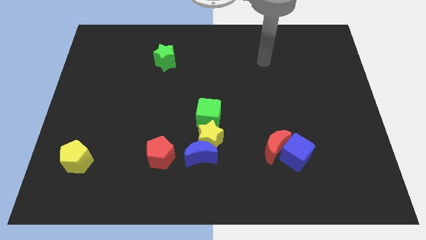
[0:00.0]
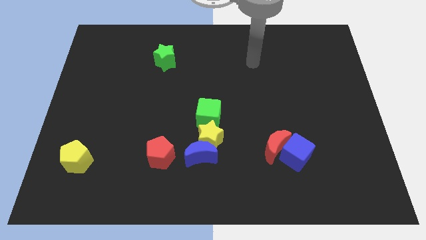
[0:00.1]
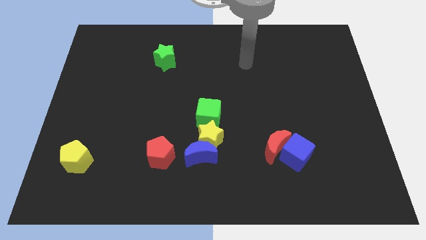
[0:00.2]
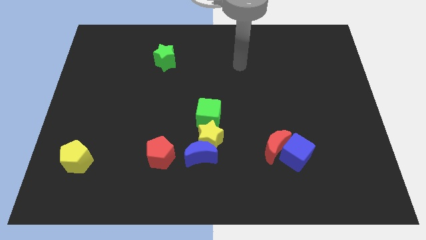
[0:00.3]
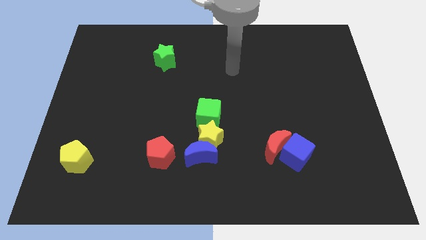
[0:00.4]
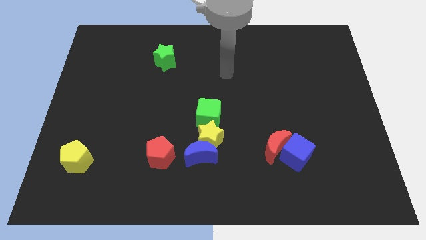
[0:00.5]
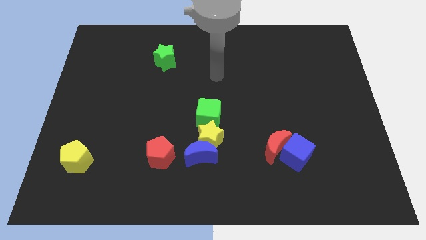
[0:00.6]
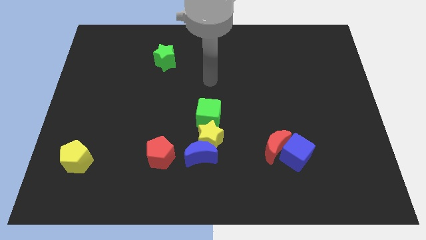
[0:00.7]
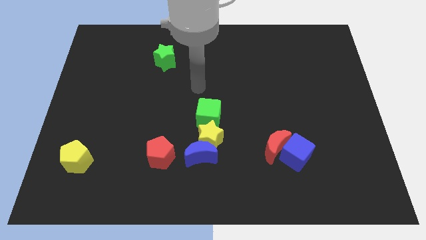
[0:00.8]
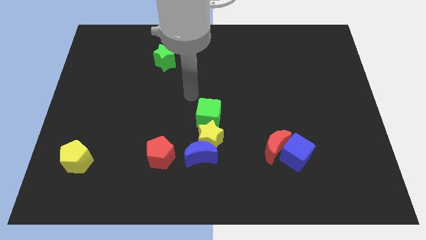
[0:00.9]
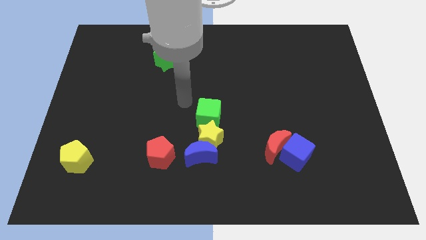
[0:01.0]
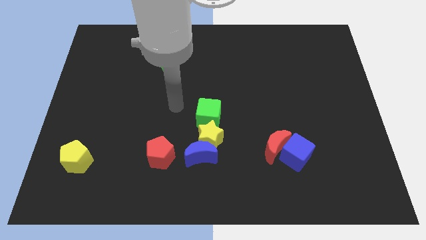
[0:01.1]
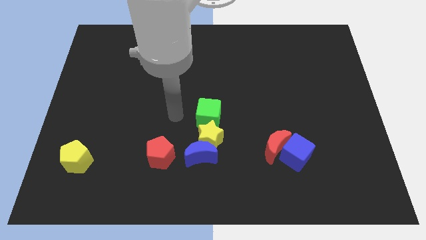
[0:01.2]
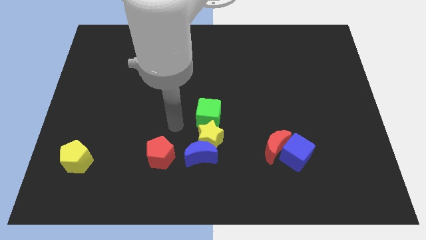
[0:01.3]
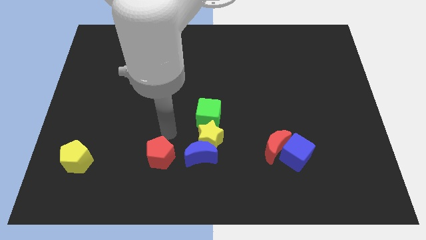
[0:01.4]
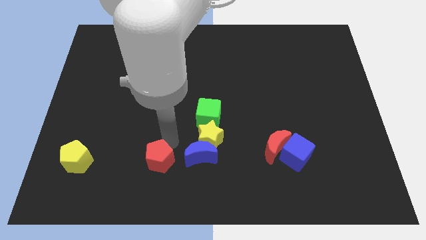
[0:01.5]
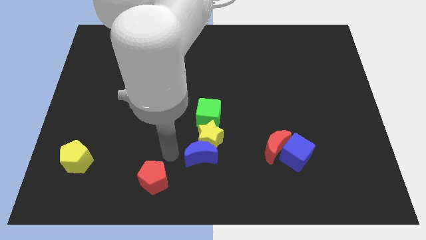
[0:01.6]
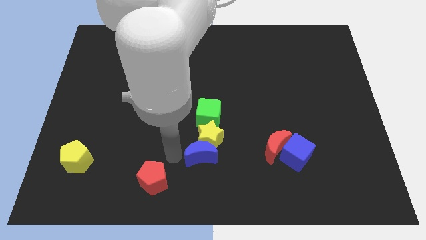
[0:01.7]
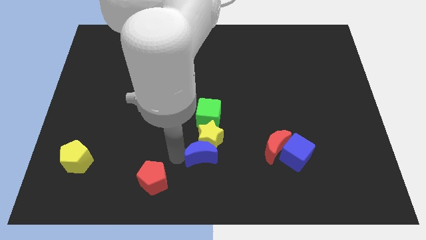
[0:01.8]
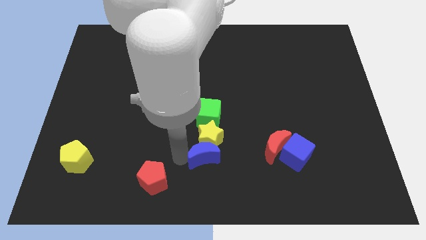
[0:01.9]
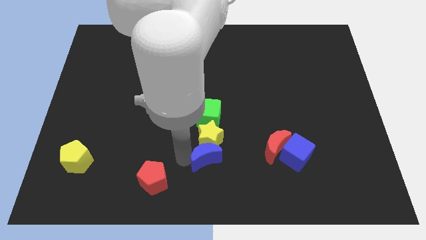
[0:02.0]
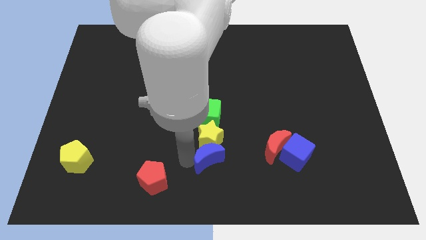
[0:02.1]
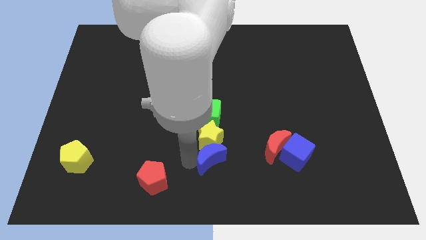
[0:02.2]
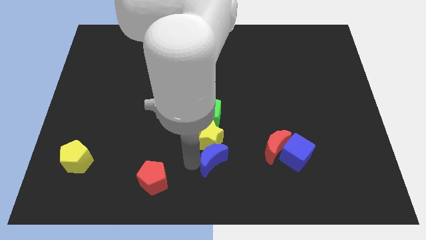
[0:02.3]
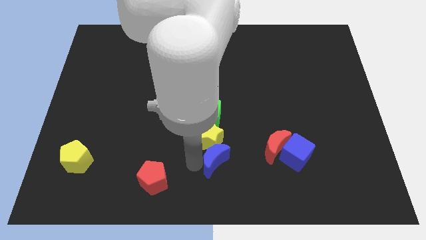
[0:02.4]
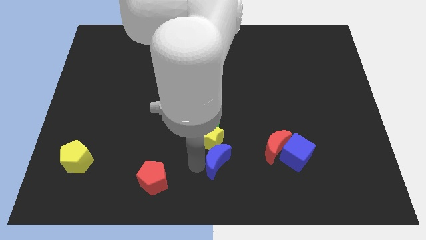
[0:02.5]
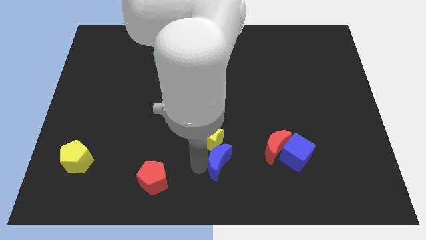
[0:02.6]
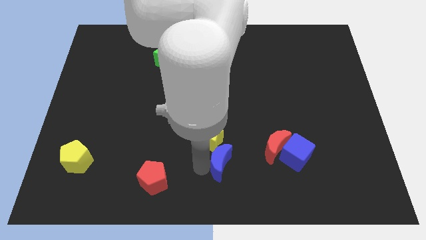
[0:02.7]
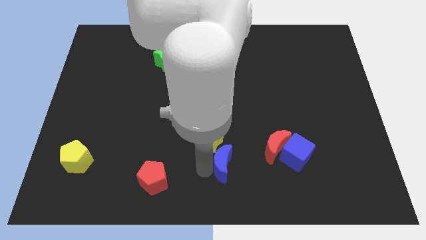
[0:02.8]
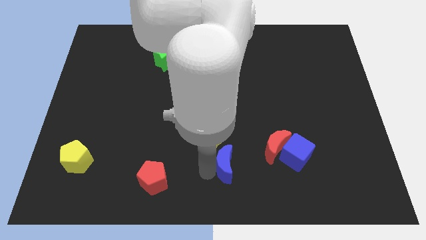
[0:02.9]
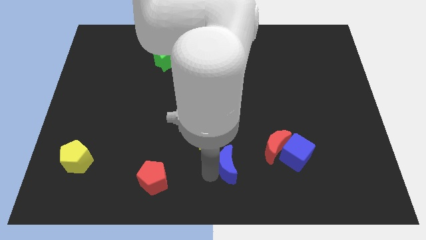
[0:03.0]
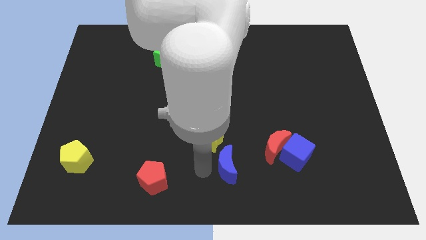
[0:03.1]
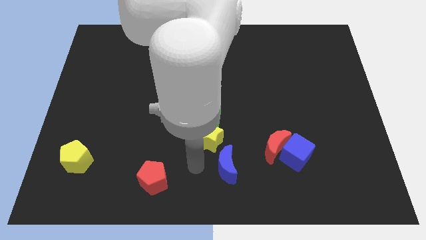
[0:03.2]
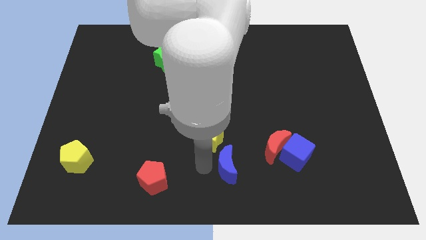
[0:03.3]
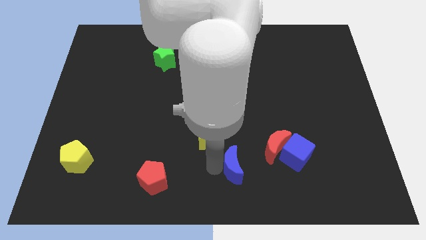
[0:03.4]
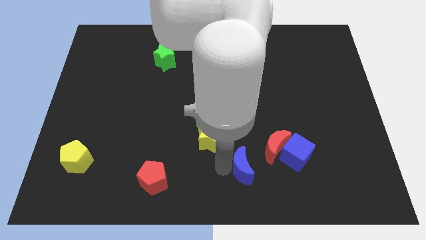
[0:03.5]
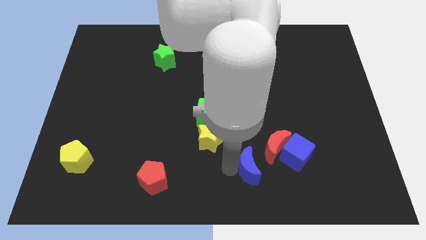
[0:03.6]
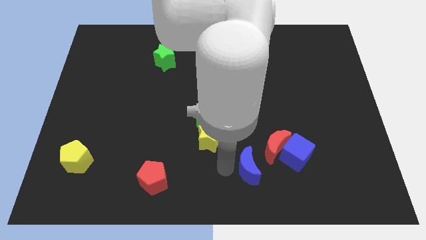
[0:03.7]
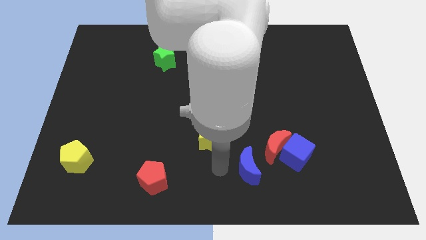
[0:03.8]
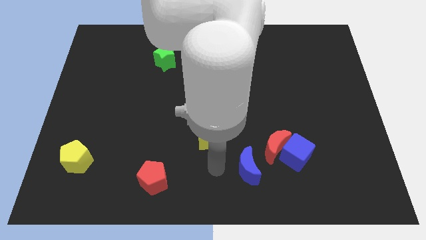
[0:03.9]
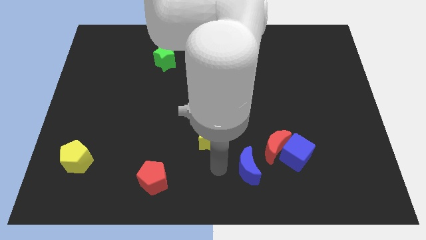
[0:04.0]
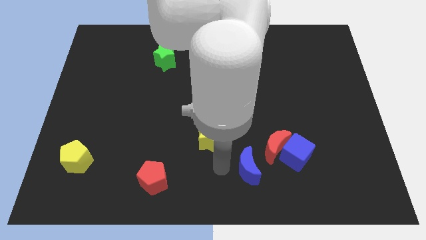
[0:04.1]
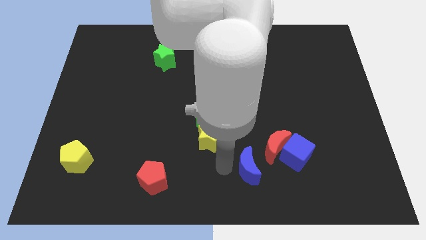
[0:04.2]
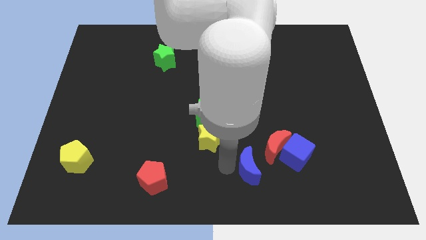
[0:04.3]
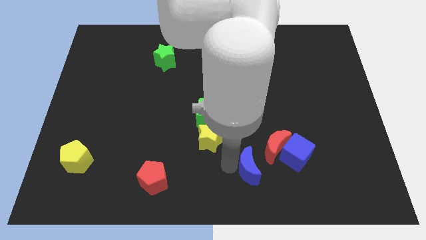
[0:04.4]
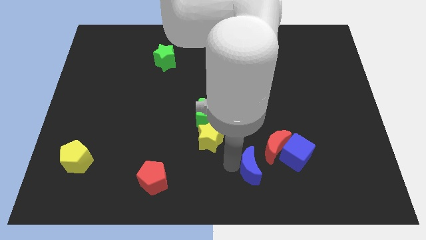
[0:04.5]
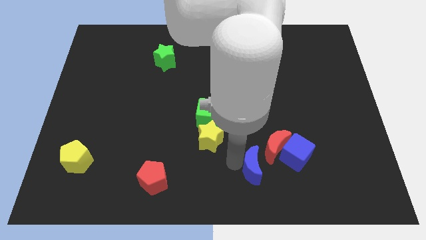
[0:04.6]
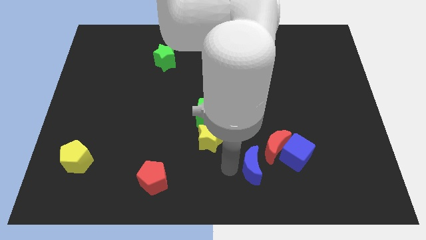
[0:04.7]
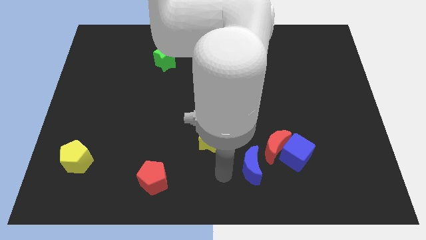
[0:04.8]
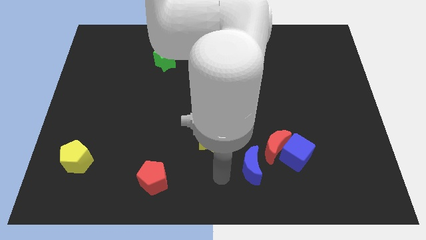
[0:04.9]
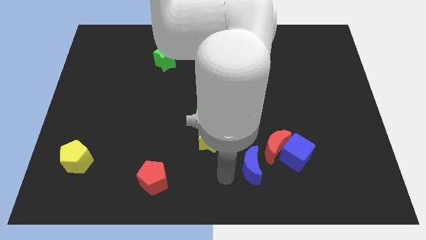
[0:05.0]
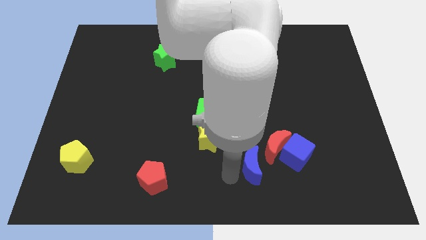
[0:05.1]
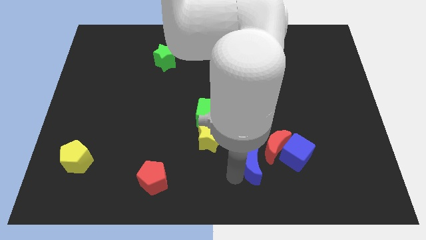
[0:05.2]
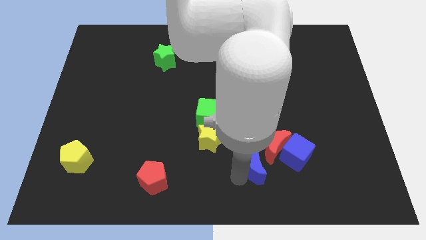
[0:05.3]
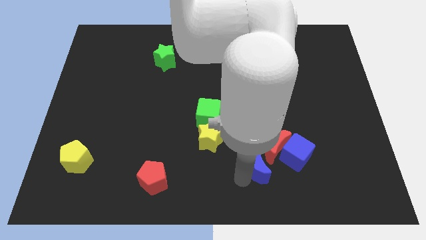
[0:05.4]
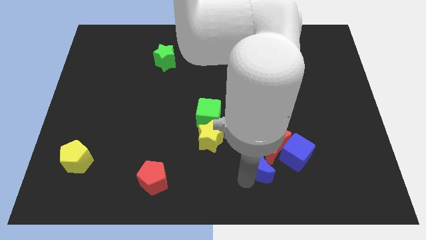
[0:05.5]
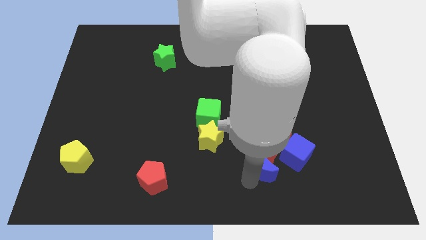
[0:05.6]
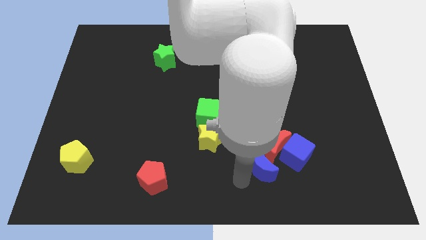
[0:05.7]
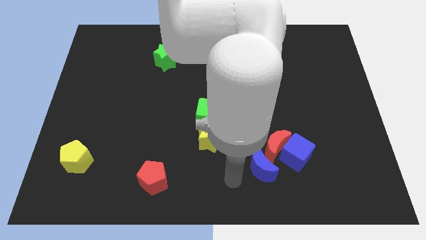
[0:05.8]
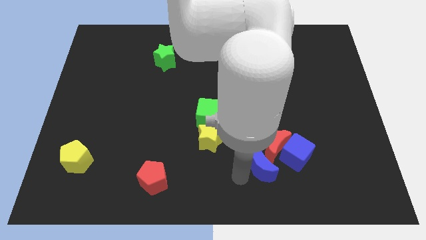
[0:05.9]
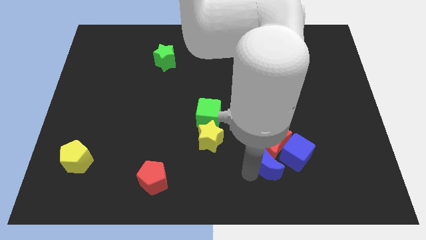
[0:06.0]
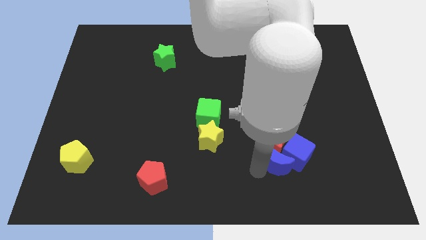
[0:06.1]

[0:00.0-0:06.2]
put the blue moon towards the blue cube
